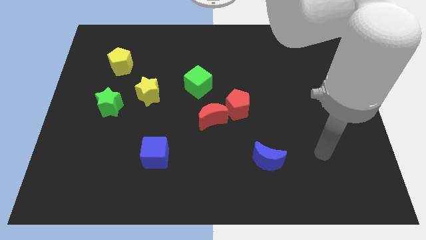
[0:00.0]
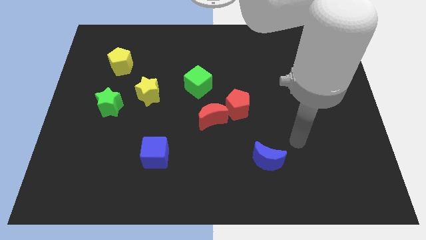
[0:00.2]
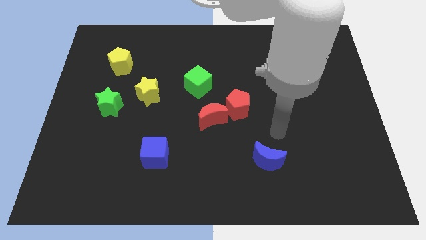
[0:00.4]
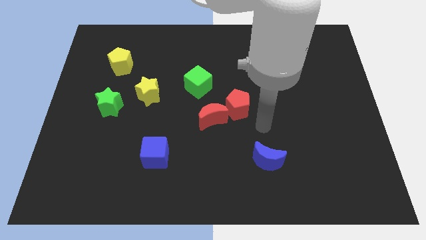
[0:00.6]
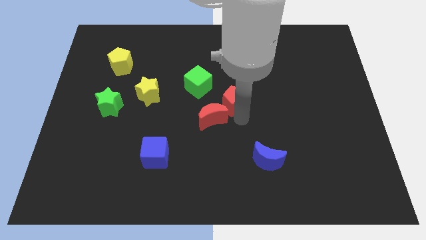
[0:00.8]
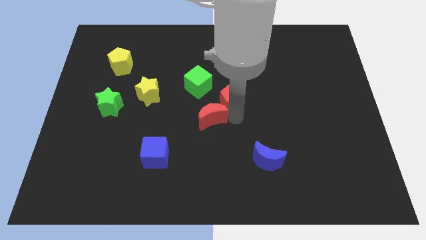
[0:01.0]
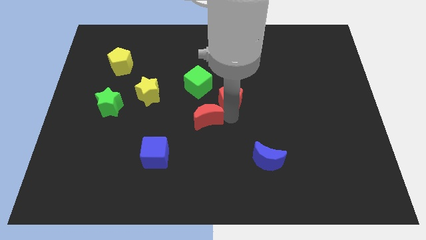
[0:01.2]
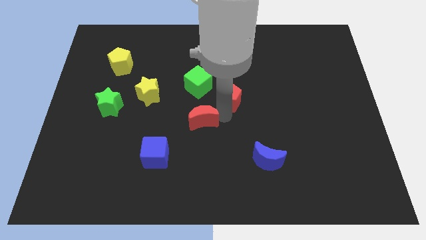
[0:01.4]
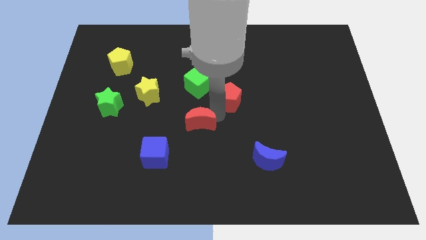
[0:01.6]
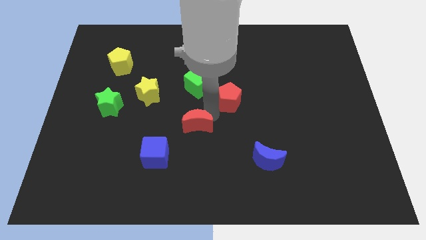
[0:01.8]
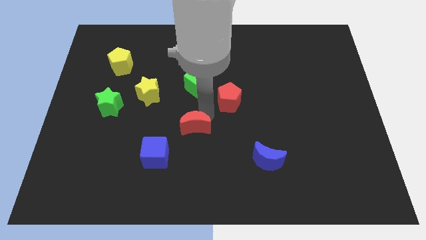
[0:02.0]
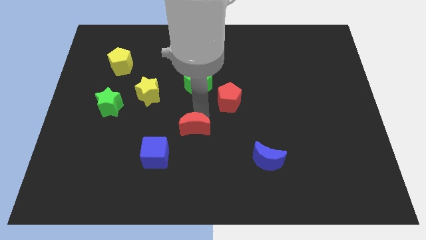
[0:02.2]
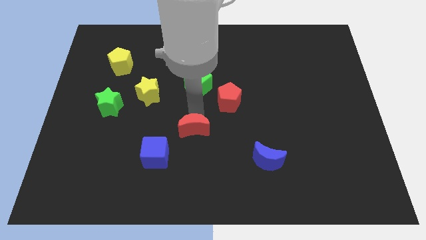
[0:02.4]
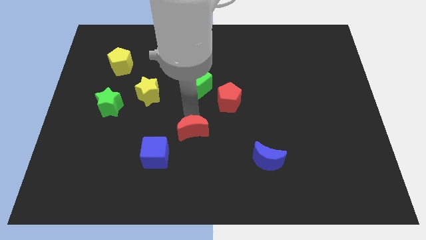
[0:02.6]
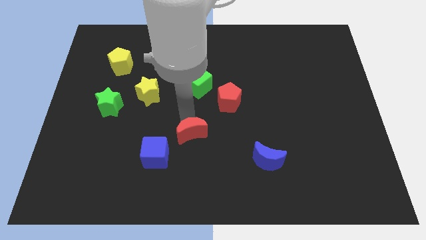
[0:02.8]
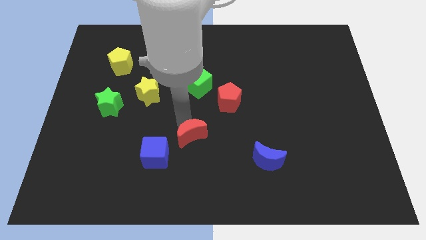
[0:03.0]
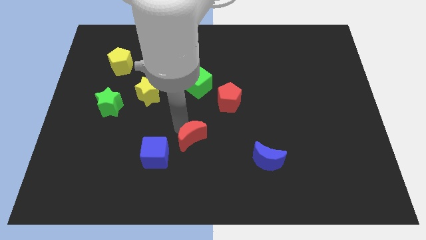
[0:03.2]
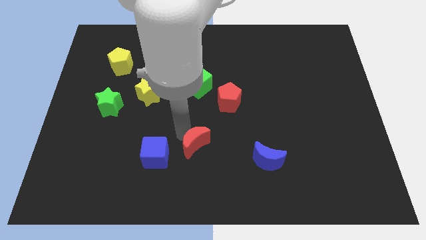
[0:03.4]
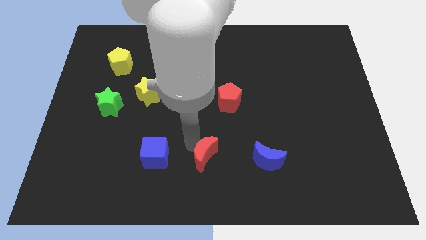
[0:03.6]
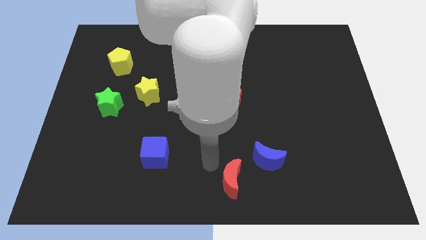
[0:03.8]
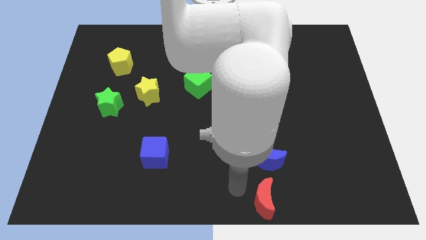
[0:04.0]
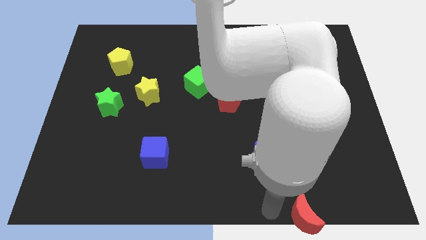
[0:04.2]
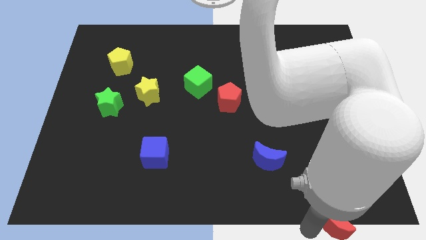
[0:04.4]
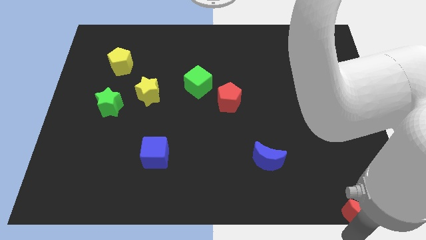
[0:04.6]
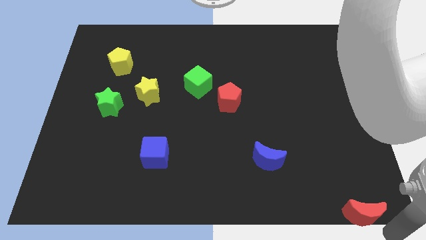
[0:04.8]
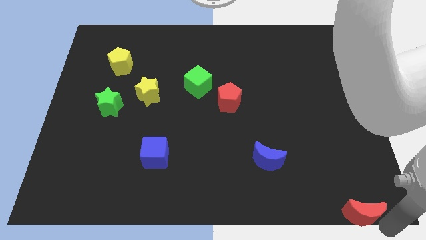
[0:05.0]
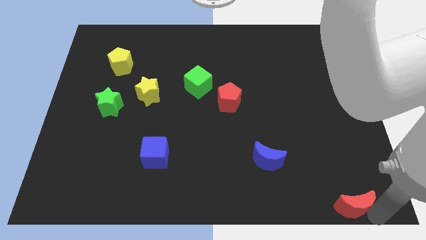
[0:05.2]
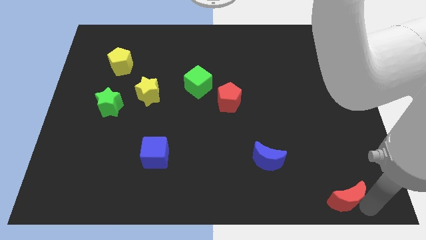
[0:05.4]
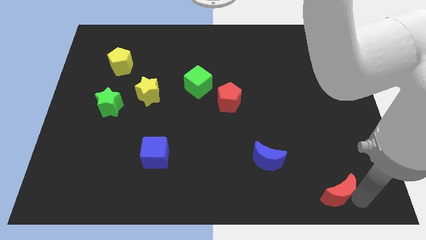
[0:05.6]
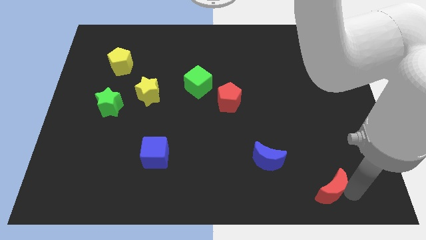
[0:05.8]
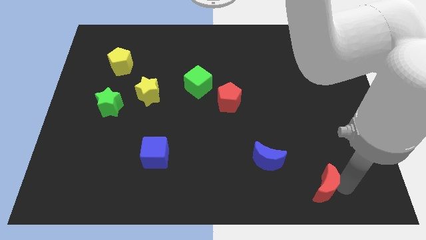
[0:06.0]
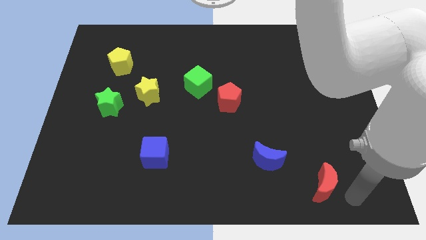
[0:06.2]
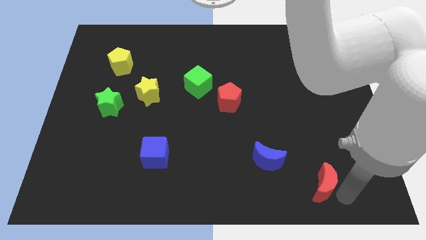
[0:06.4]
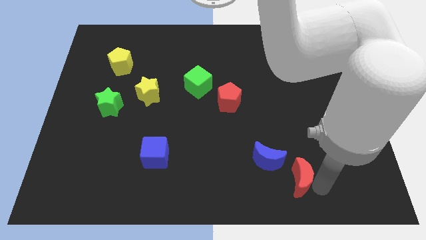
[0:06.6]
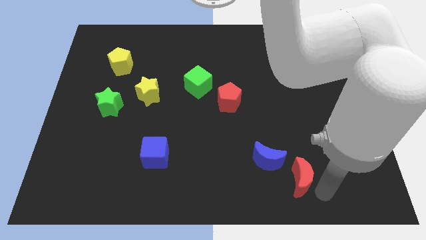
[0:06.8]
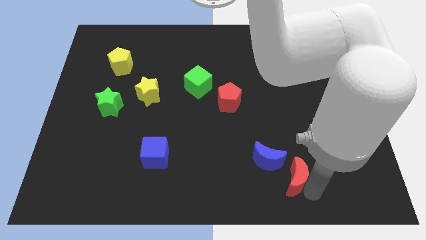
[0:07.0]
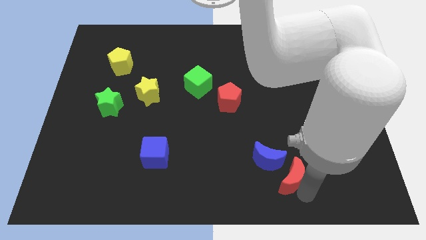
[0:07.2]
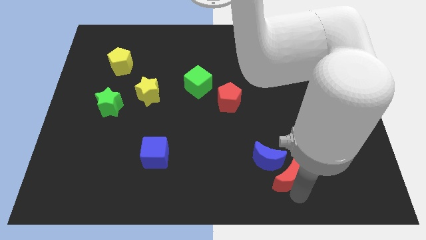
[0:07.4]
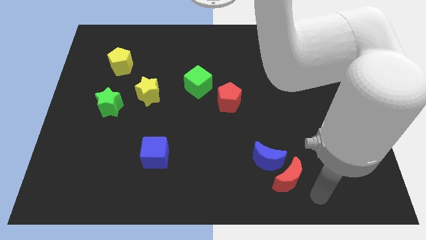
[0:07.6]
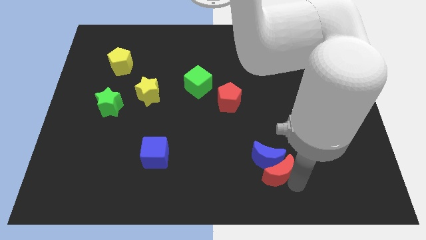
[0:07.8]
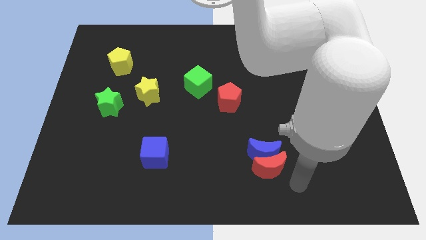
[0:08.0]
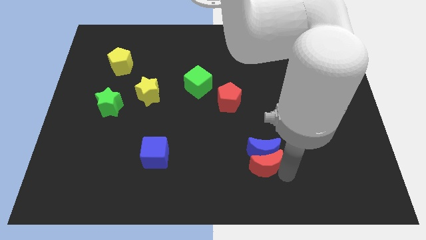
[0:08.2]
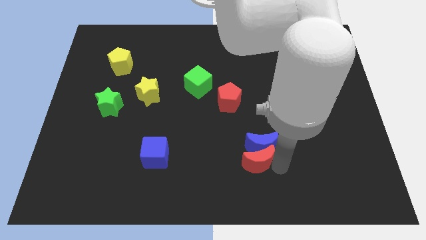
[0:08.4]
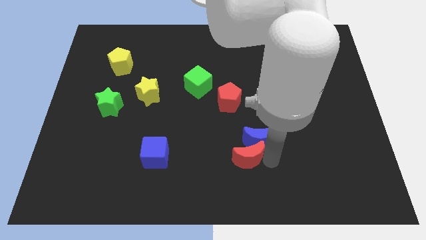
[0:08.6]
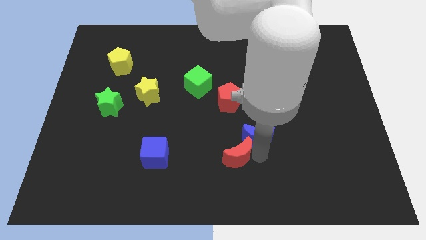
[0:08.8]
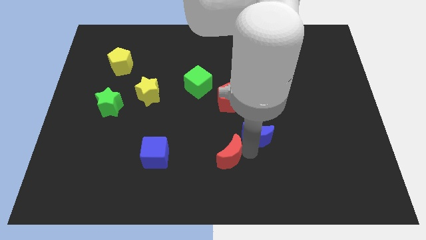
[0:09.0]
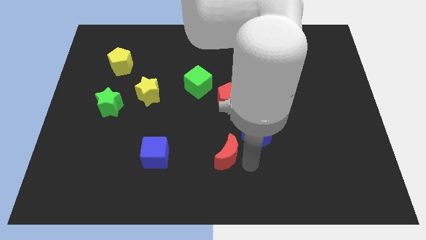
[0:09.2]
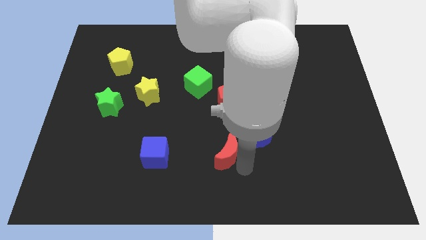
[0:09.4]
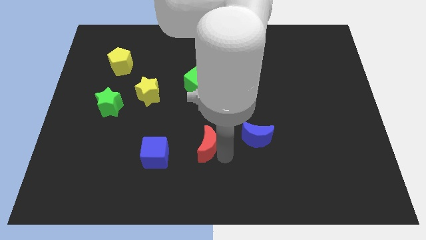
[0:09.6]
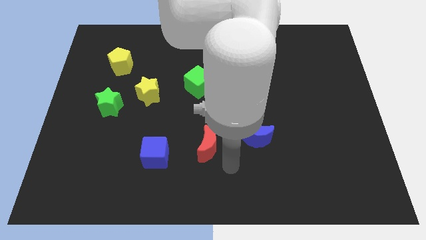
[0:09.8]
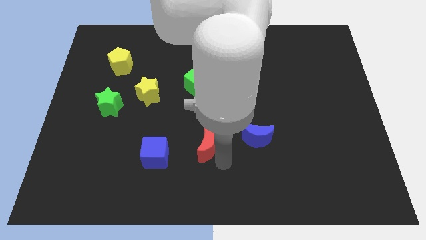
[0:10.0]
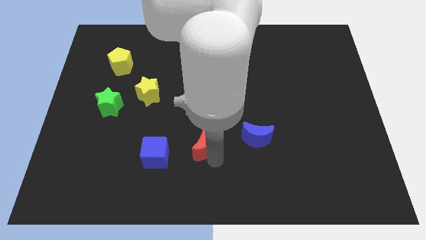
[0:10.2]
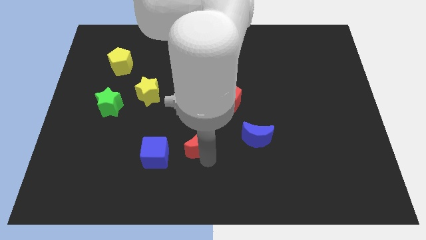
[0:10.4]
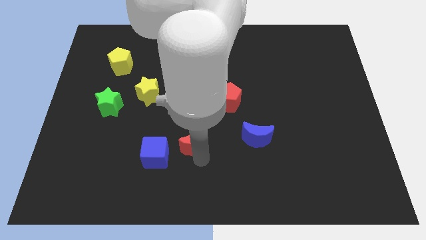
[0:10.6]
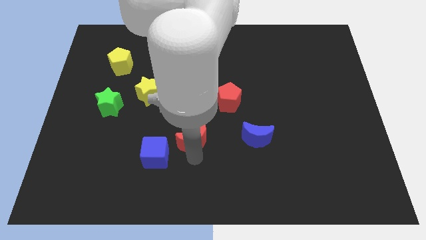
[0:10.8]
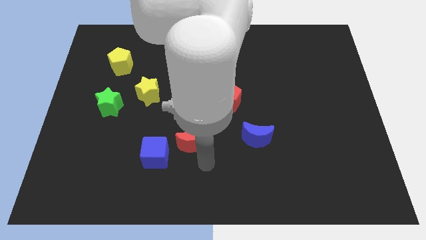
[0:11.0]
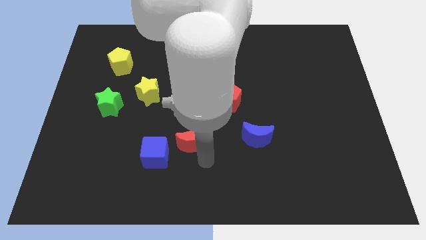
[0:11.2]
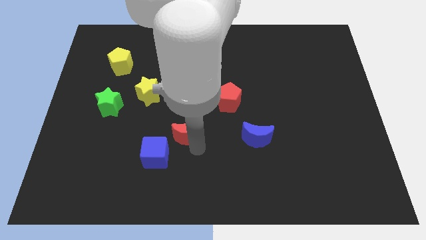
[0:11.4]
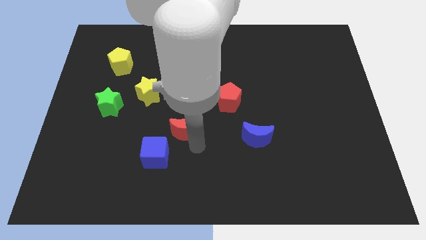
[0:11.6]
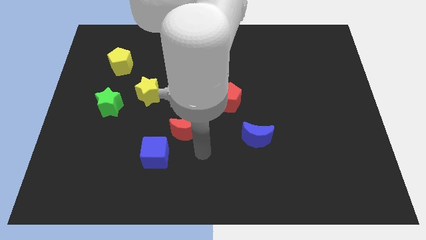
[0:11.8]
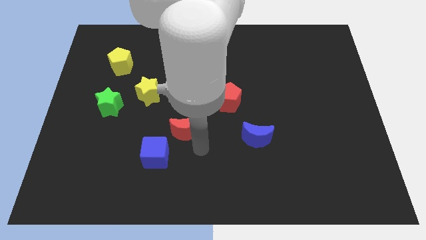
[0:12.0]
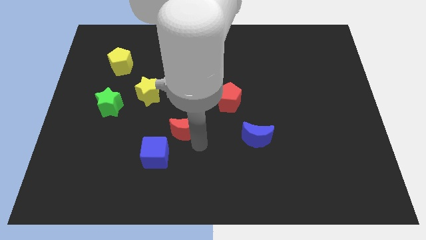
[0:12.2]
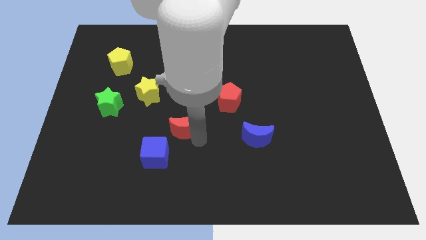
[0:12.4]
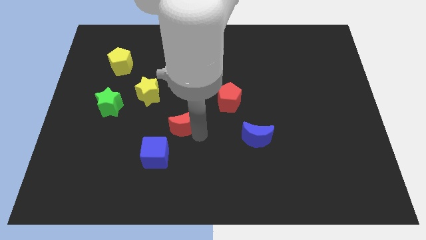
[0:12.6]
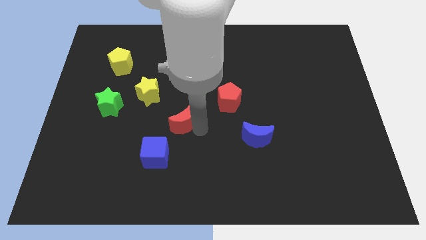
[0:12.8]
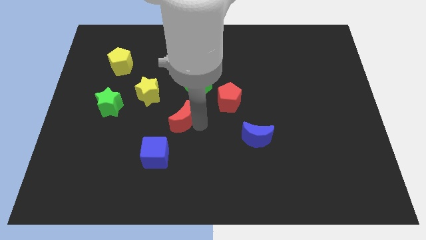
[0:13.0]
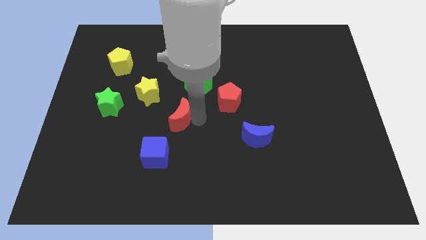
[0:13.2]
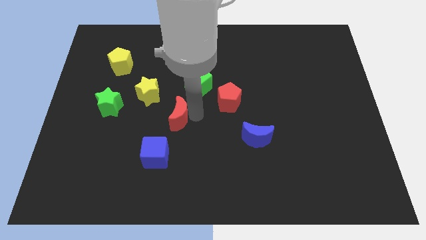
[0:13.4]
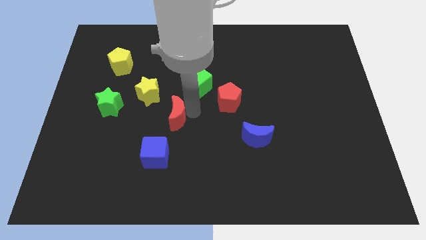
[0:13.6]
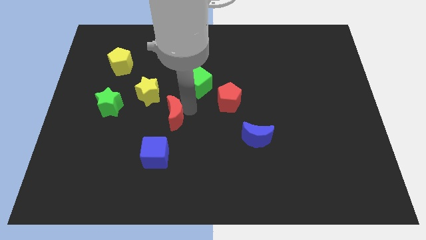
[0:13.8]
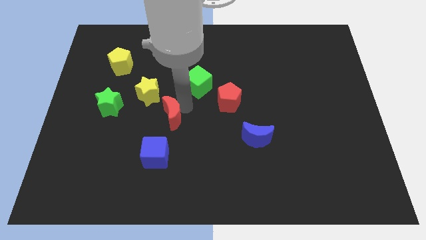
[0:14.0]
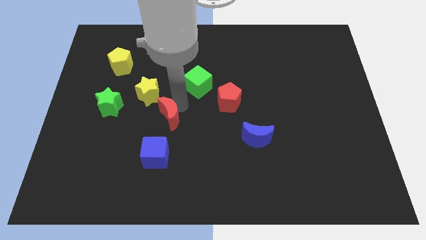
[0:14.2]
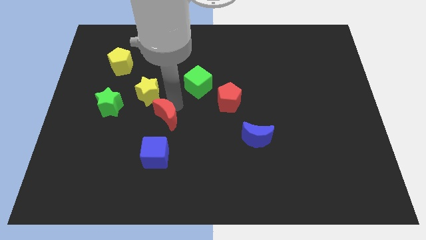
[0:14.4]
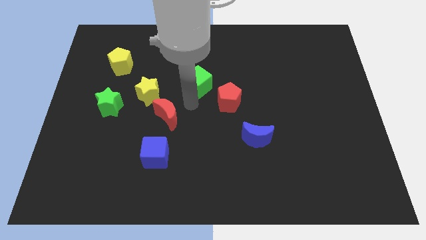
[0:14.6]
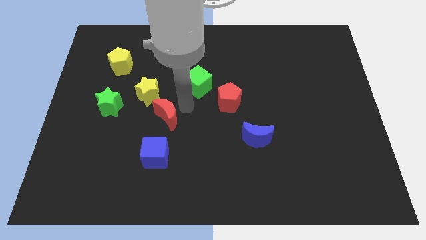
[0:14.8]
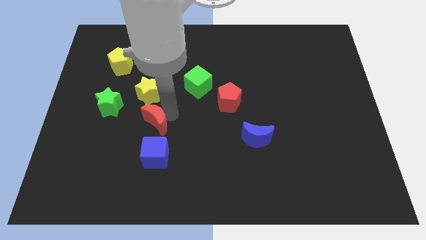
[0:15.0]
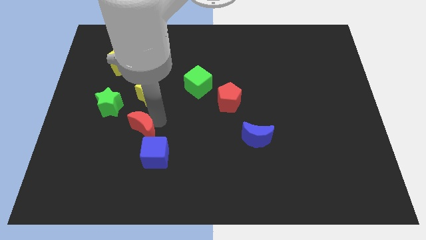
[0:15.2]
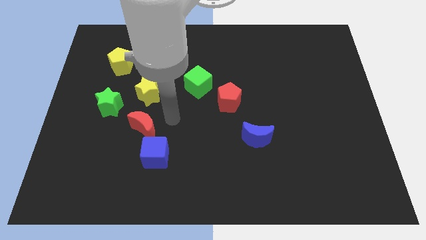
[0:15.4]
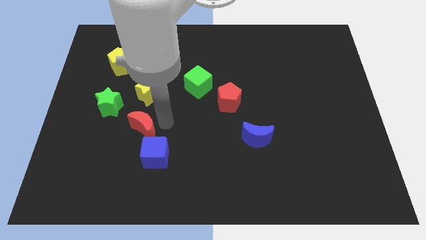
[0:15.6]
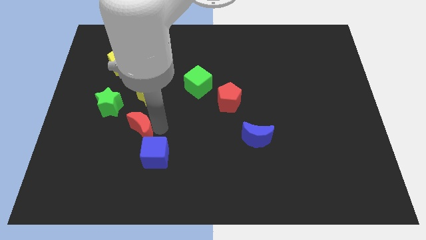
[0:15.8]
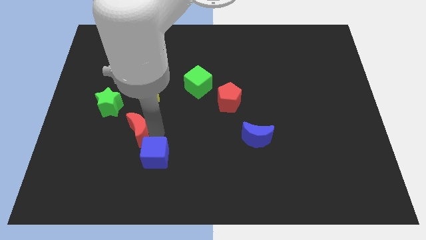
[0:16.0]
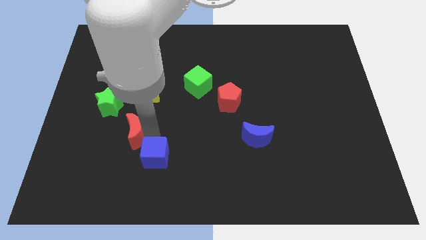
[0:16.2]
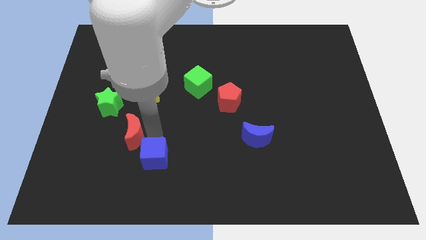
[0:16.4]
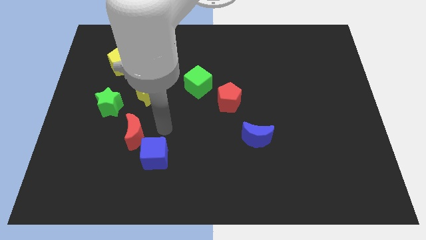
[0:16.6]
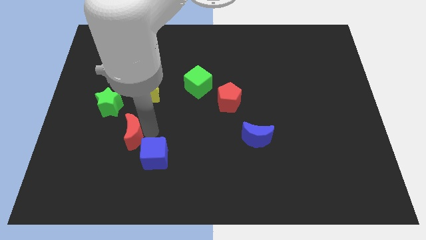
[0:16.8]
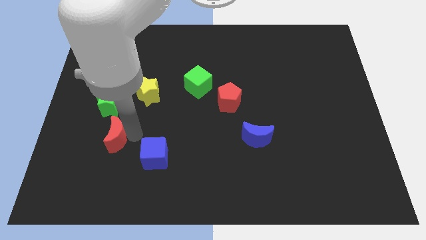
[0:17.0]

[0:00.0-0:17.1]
slide the red moon to the bottom side of the green star
